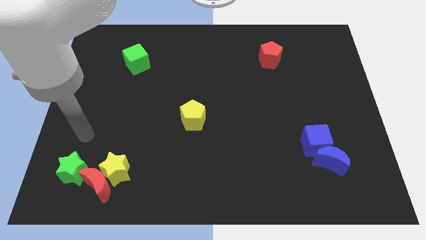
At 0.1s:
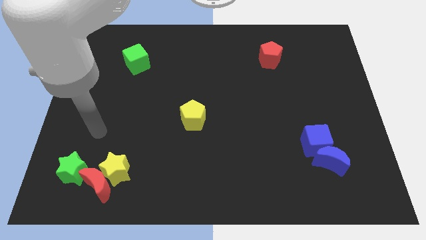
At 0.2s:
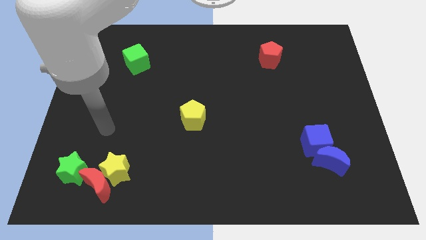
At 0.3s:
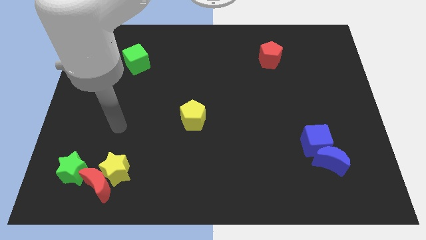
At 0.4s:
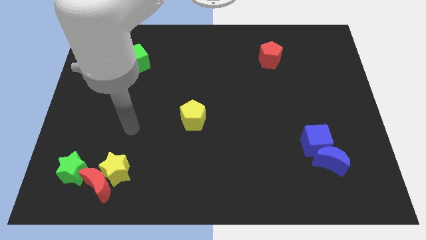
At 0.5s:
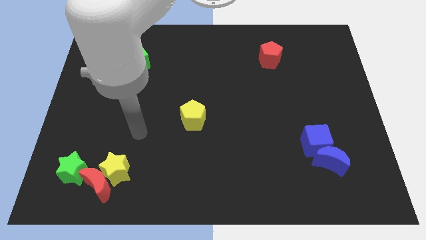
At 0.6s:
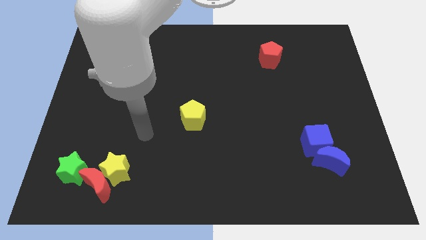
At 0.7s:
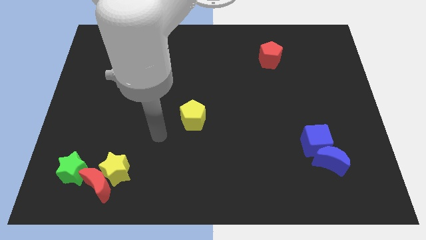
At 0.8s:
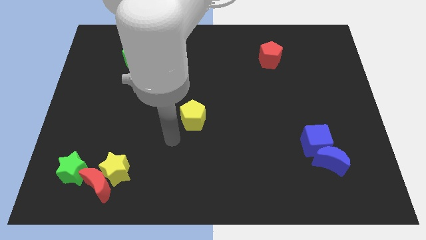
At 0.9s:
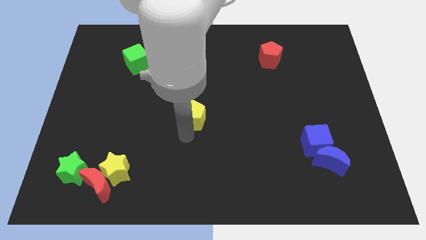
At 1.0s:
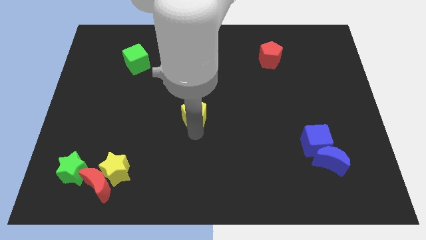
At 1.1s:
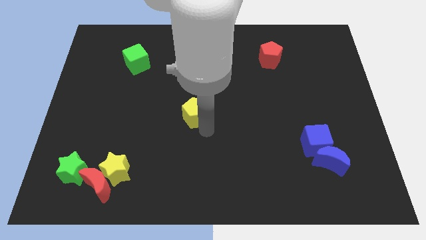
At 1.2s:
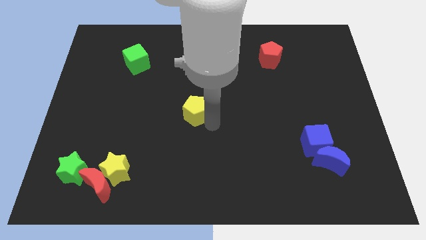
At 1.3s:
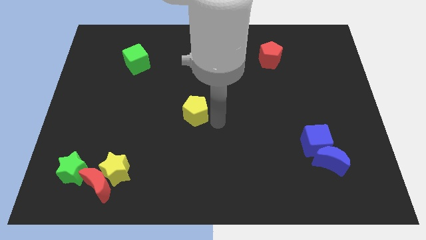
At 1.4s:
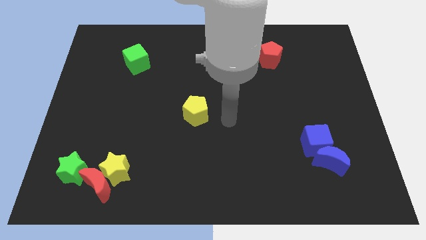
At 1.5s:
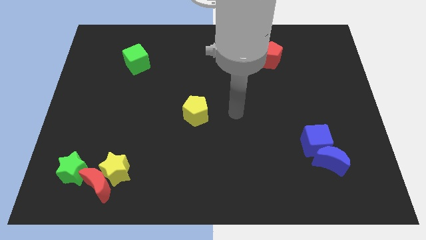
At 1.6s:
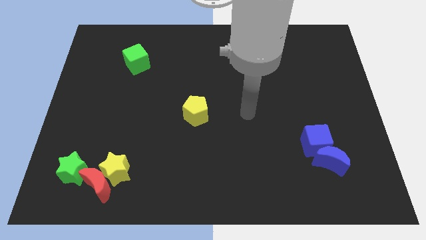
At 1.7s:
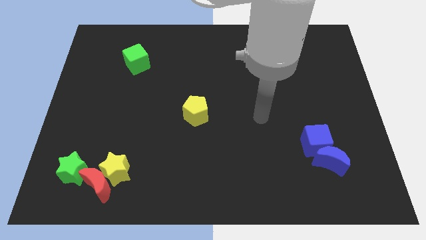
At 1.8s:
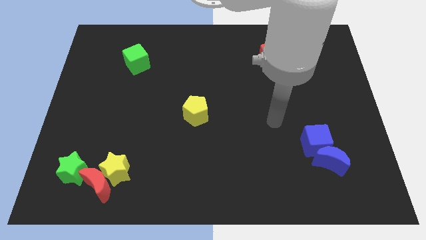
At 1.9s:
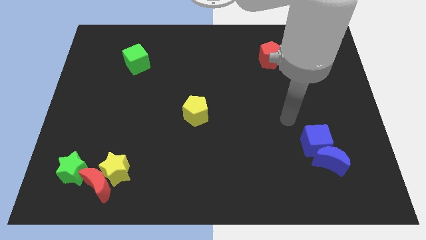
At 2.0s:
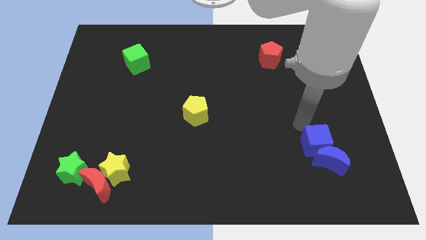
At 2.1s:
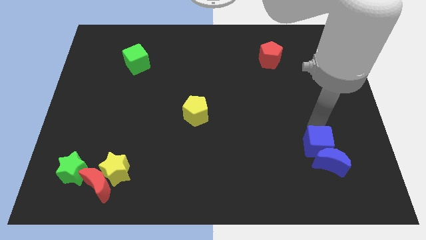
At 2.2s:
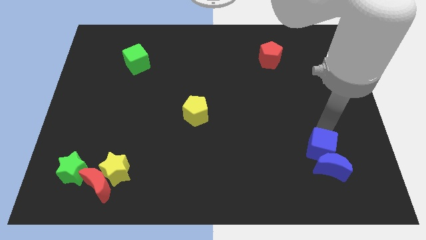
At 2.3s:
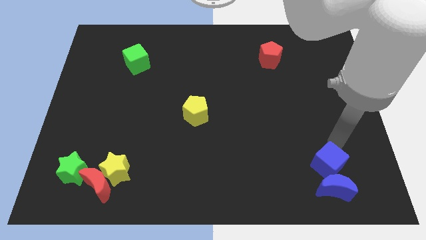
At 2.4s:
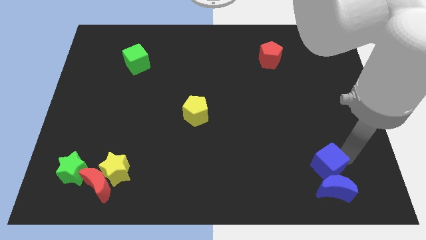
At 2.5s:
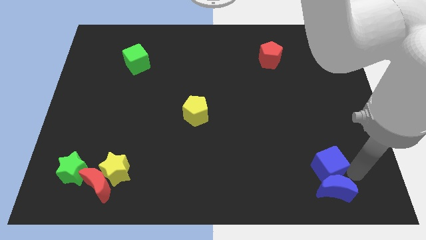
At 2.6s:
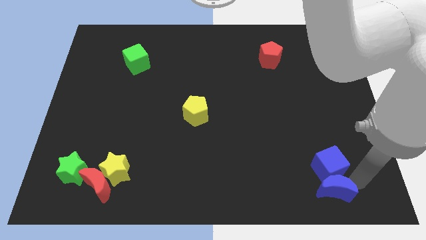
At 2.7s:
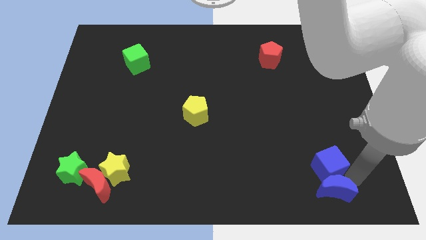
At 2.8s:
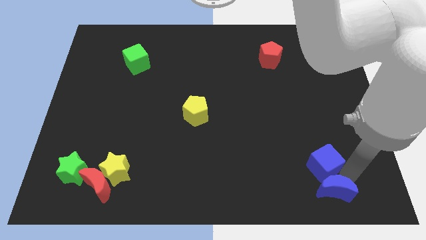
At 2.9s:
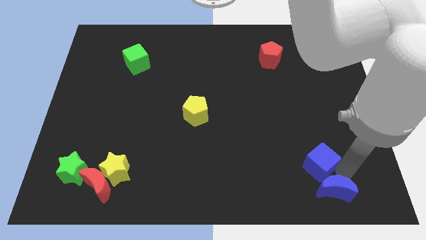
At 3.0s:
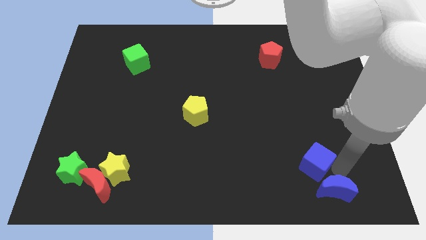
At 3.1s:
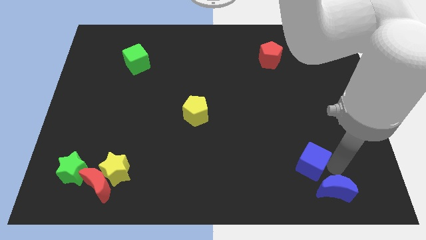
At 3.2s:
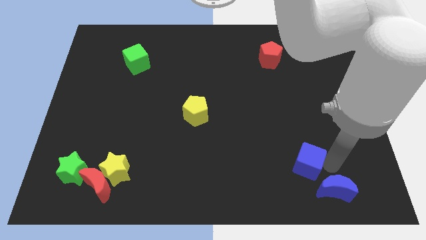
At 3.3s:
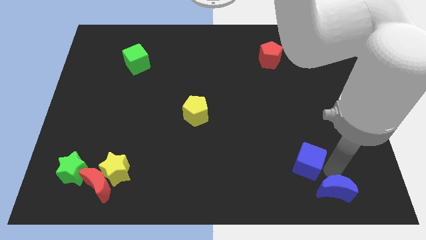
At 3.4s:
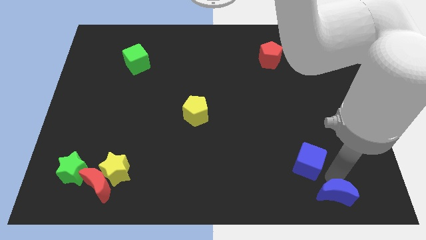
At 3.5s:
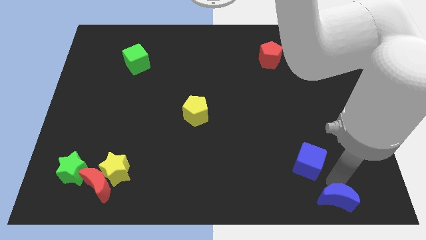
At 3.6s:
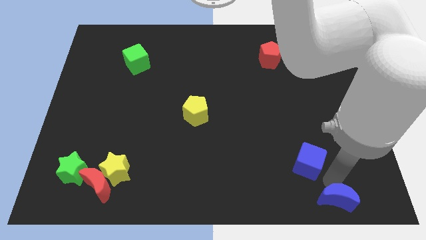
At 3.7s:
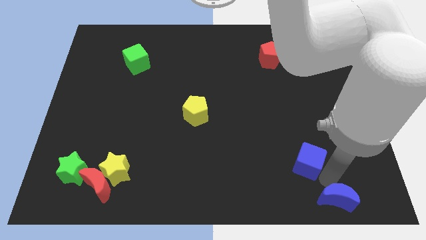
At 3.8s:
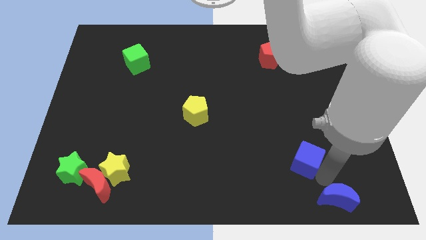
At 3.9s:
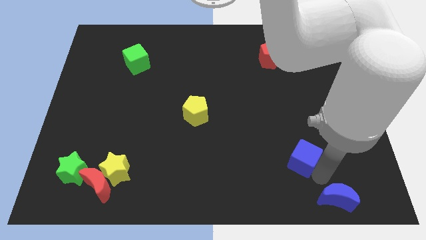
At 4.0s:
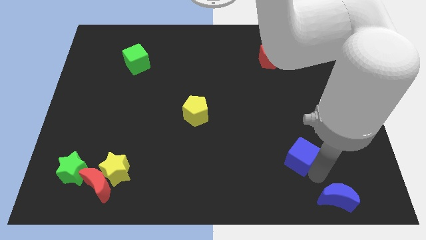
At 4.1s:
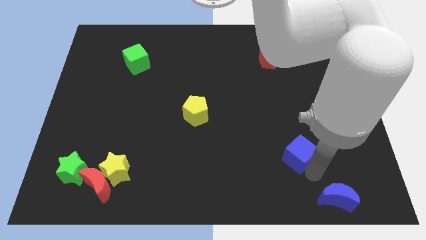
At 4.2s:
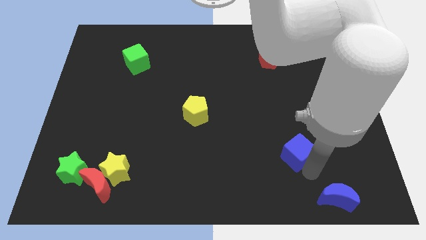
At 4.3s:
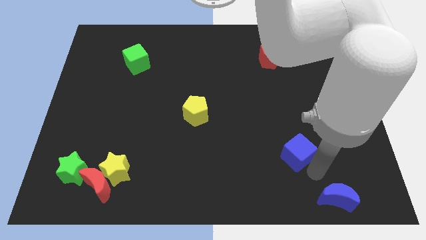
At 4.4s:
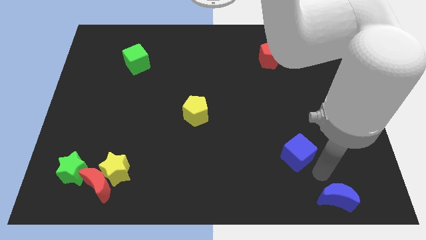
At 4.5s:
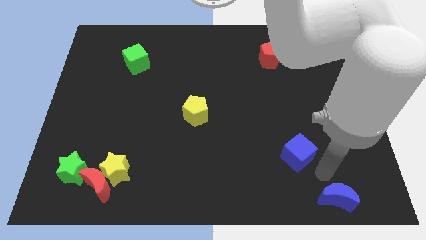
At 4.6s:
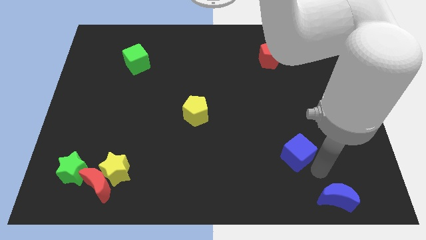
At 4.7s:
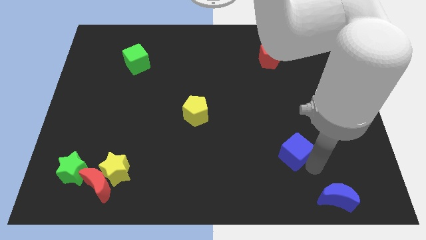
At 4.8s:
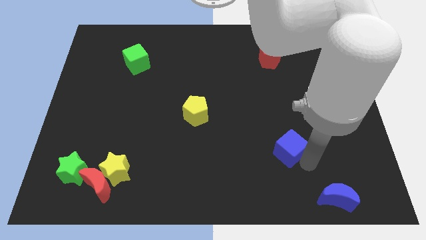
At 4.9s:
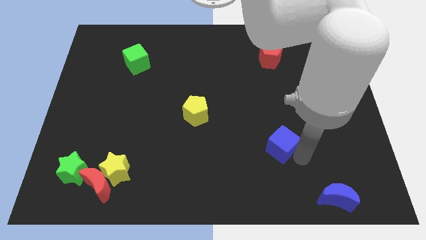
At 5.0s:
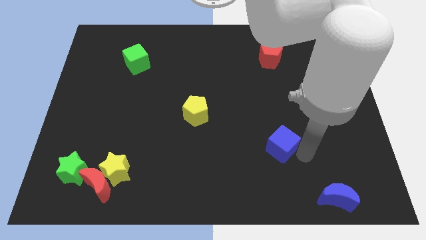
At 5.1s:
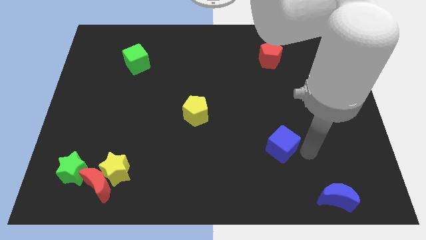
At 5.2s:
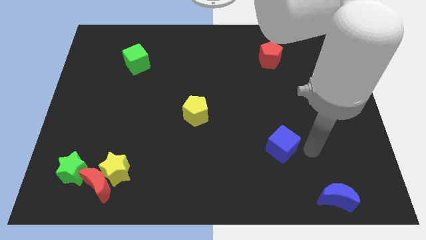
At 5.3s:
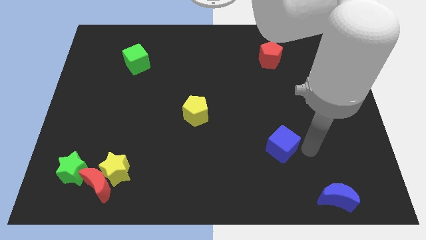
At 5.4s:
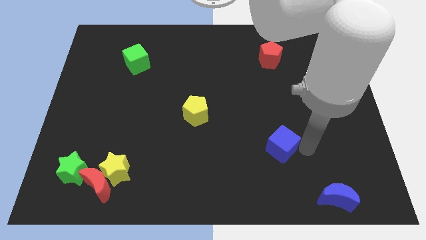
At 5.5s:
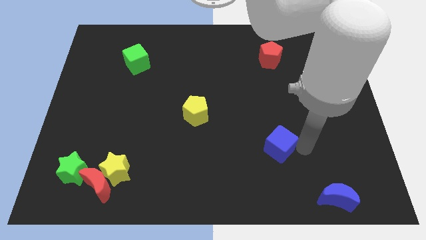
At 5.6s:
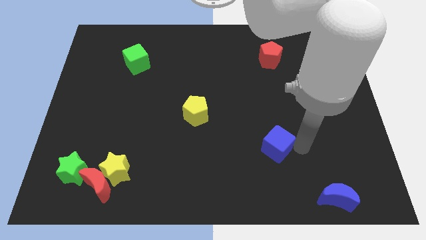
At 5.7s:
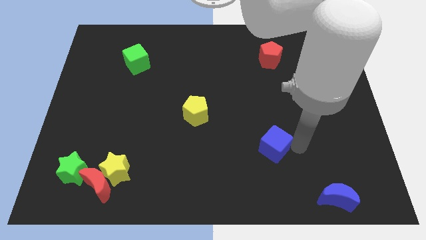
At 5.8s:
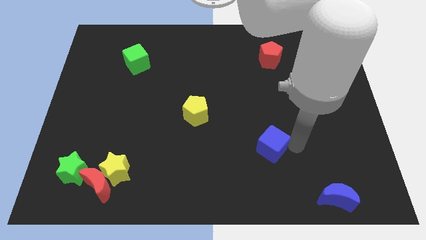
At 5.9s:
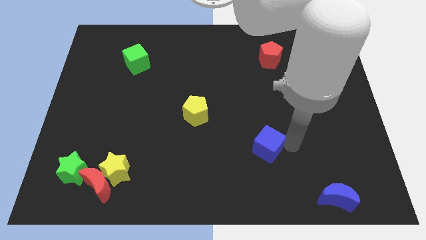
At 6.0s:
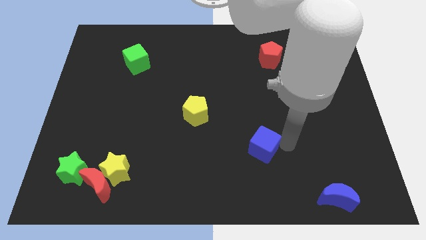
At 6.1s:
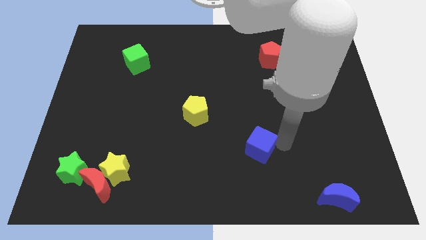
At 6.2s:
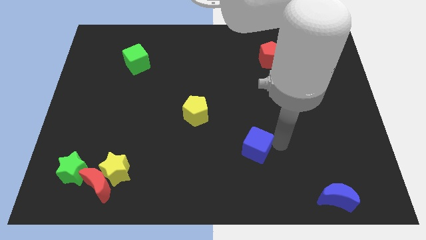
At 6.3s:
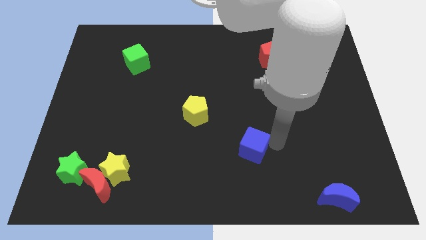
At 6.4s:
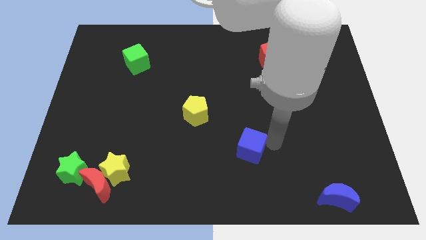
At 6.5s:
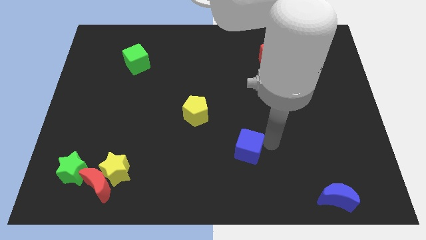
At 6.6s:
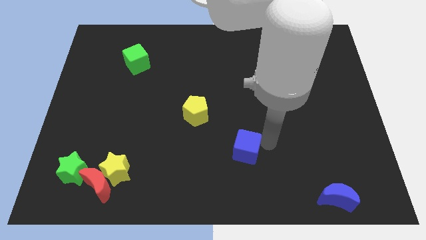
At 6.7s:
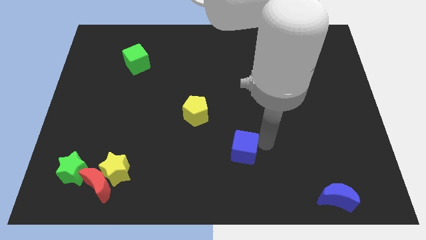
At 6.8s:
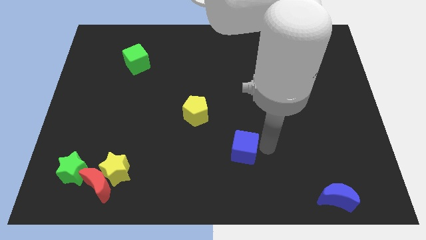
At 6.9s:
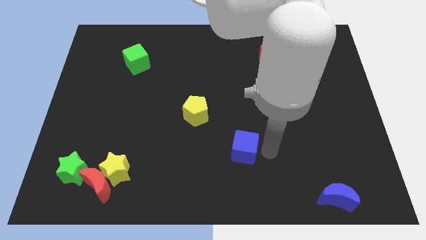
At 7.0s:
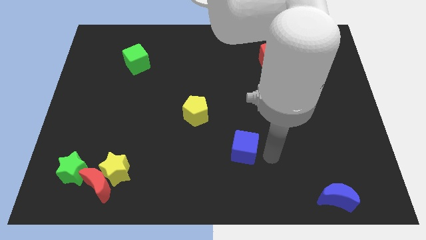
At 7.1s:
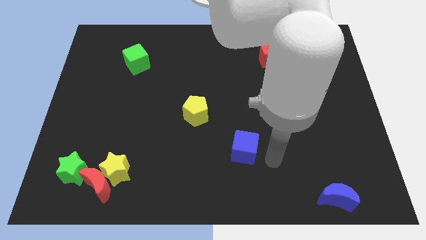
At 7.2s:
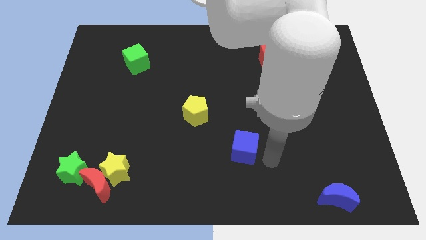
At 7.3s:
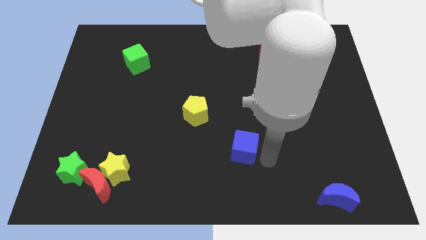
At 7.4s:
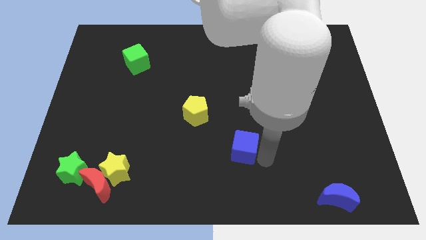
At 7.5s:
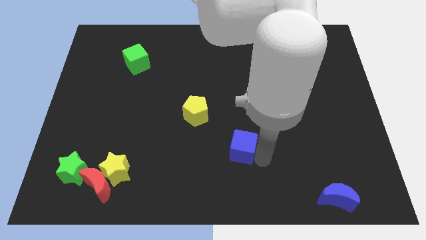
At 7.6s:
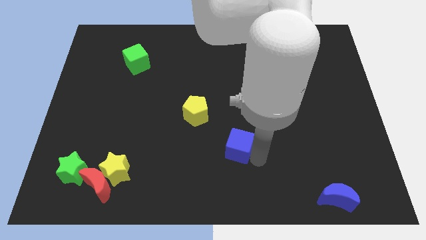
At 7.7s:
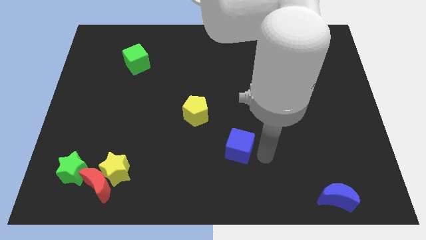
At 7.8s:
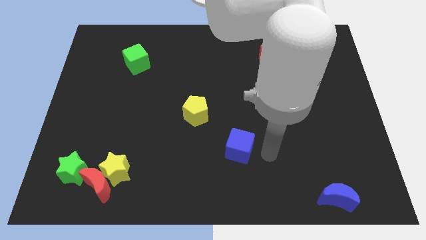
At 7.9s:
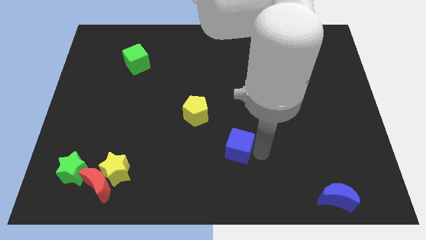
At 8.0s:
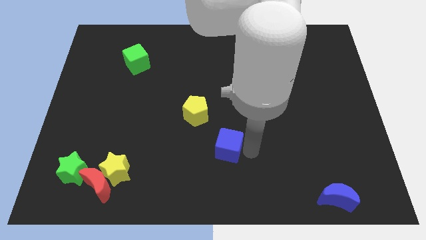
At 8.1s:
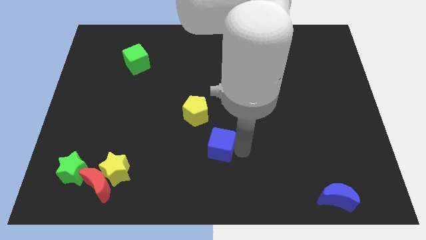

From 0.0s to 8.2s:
push the blue cube left
